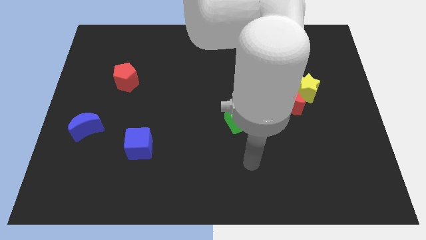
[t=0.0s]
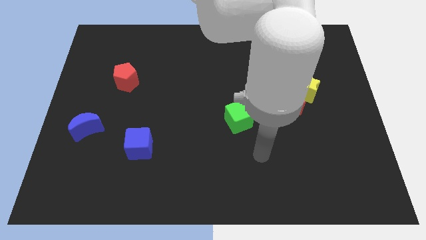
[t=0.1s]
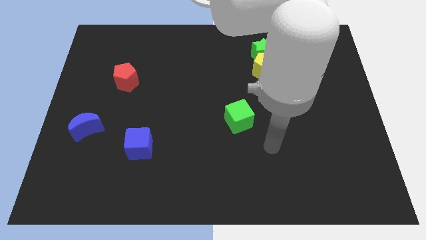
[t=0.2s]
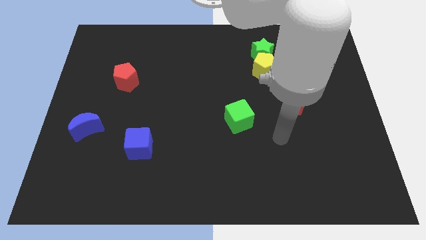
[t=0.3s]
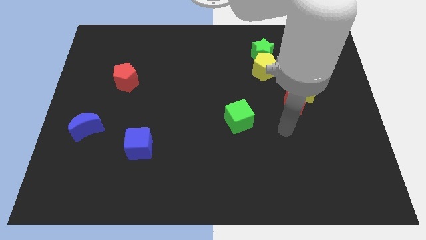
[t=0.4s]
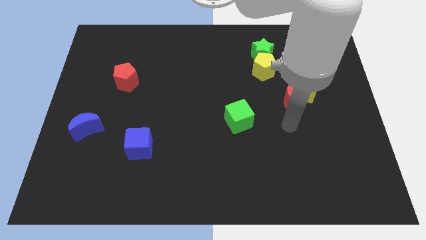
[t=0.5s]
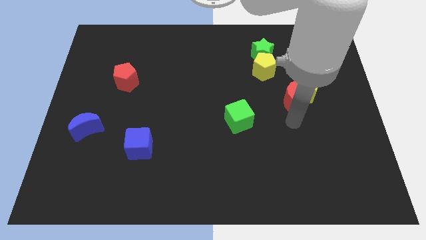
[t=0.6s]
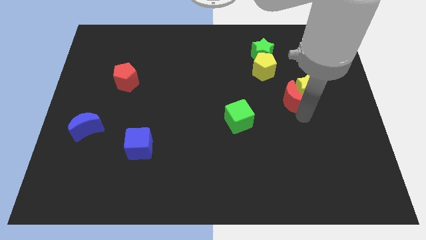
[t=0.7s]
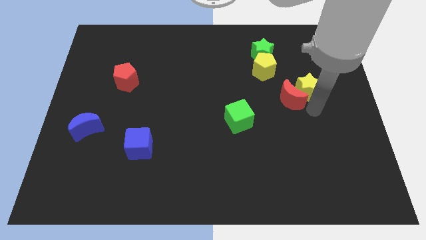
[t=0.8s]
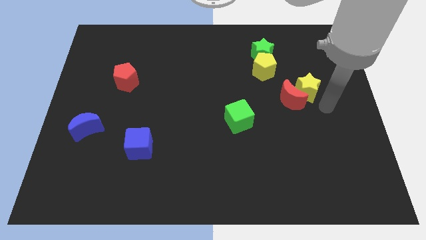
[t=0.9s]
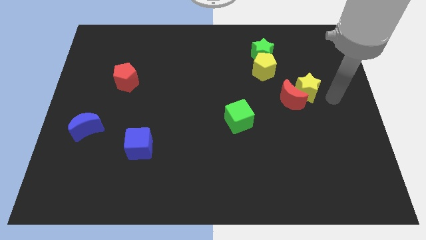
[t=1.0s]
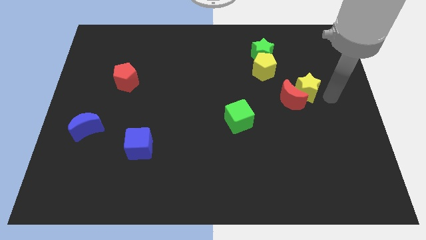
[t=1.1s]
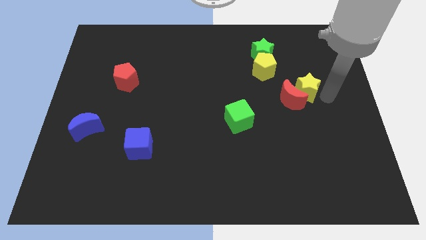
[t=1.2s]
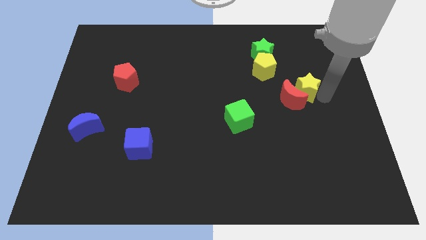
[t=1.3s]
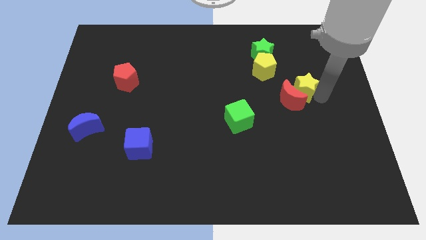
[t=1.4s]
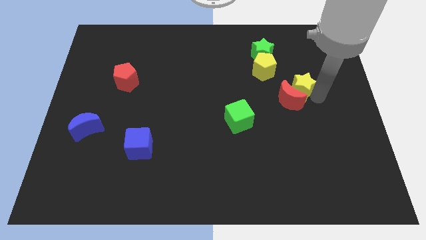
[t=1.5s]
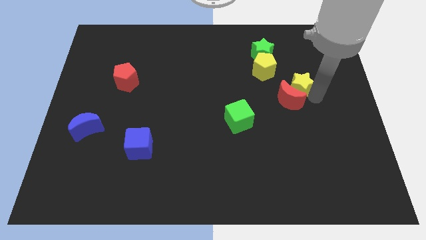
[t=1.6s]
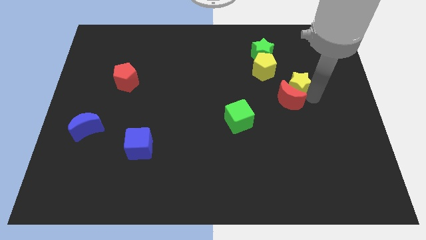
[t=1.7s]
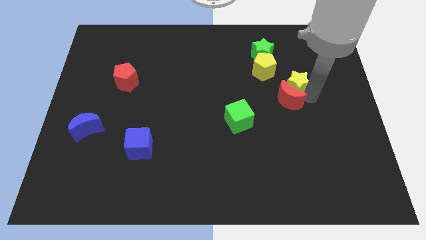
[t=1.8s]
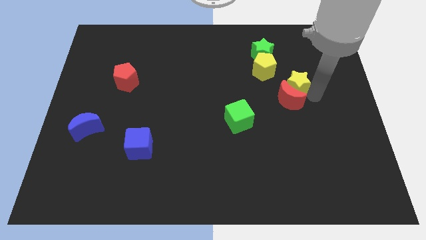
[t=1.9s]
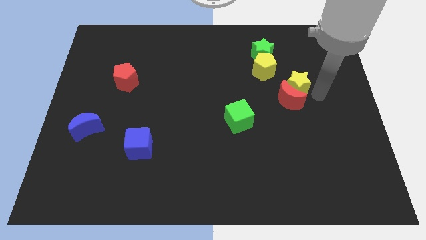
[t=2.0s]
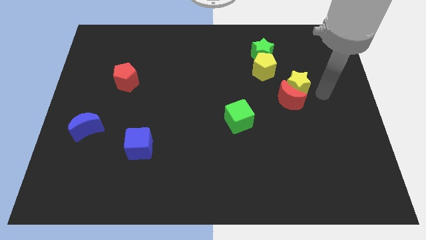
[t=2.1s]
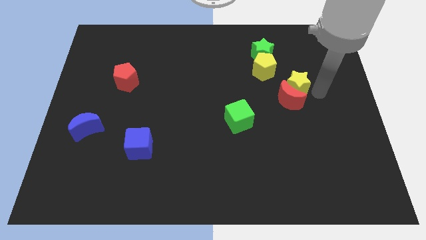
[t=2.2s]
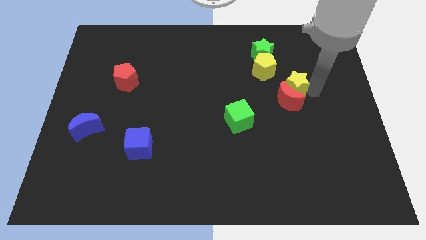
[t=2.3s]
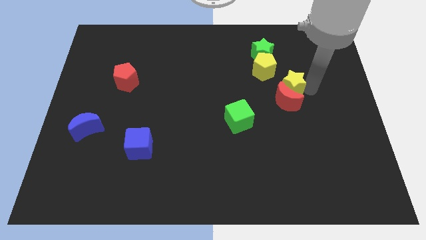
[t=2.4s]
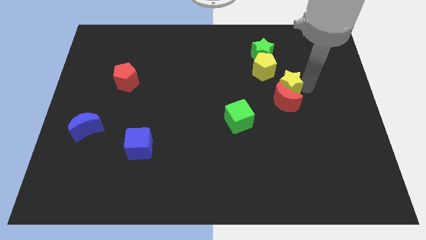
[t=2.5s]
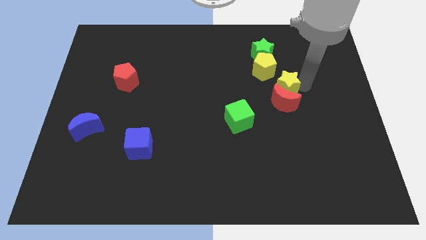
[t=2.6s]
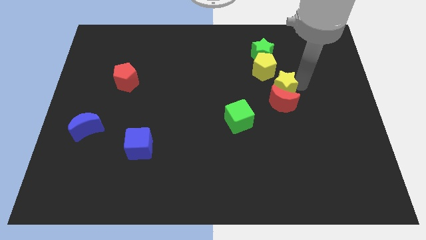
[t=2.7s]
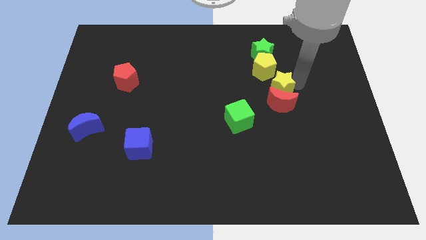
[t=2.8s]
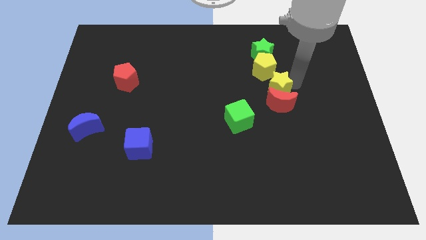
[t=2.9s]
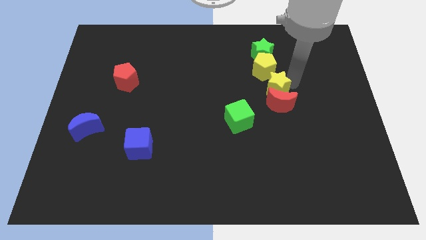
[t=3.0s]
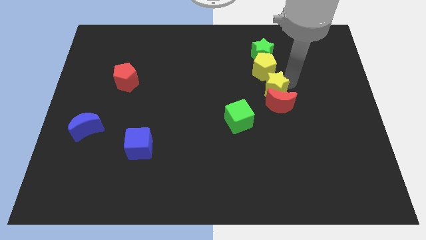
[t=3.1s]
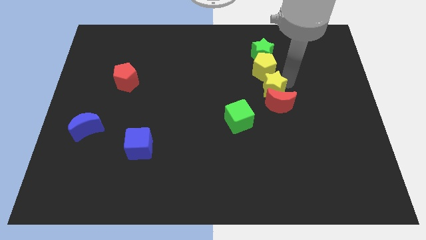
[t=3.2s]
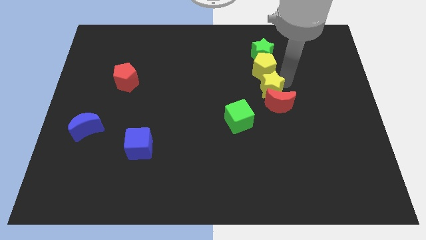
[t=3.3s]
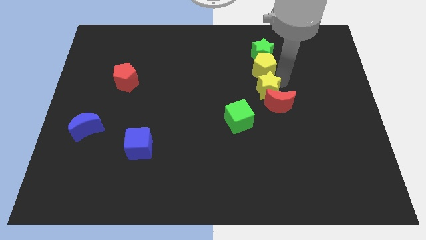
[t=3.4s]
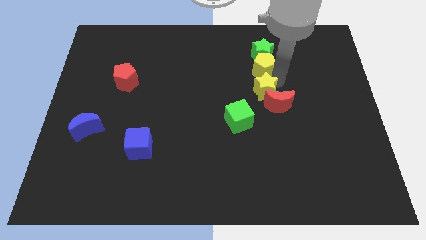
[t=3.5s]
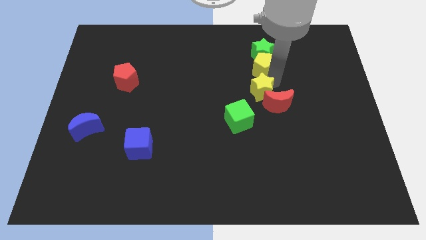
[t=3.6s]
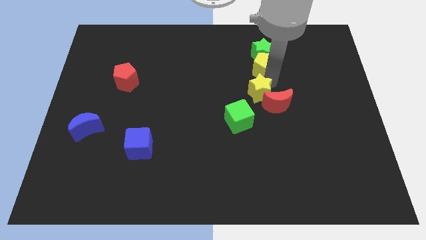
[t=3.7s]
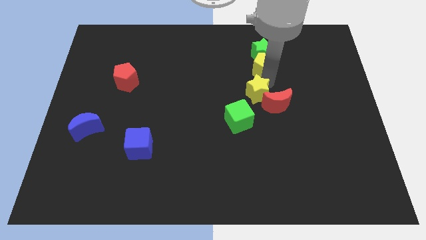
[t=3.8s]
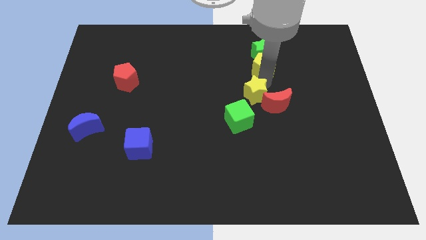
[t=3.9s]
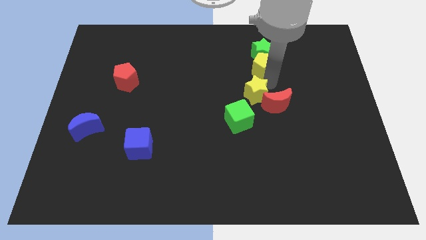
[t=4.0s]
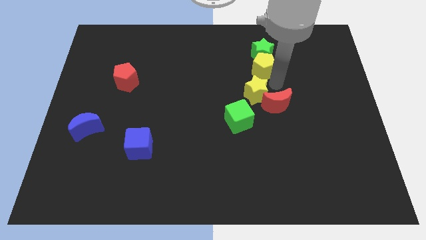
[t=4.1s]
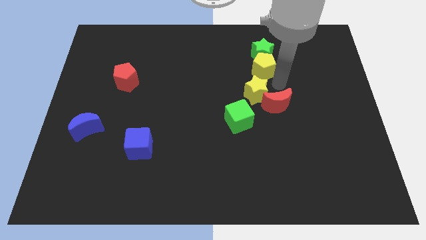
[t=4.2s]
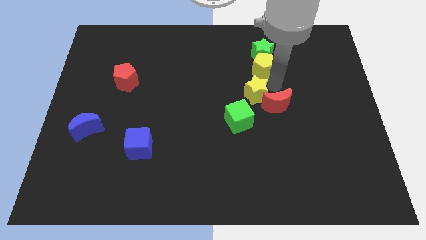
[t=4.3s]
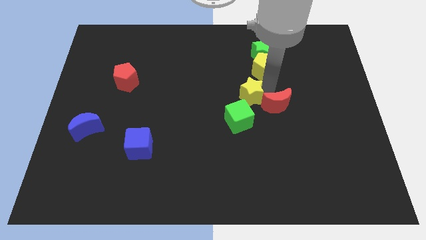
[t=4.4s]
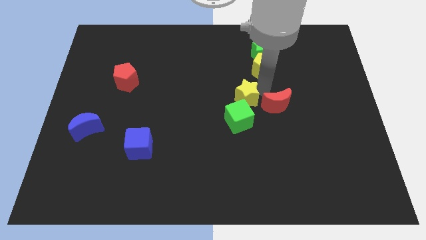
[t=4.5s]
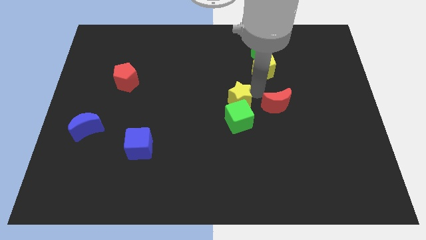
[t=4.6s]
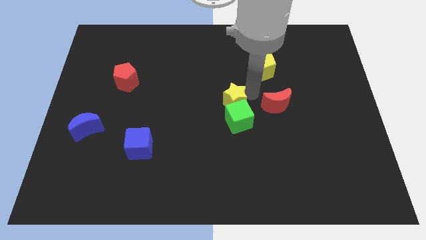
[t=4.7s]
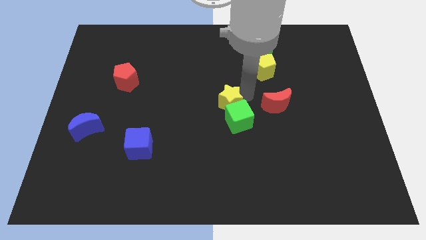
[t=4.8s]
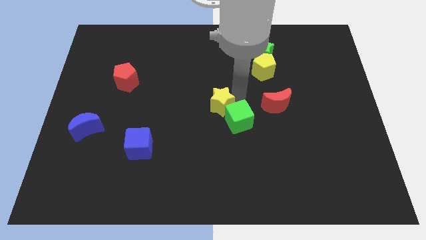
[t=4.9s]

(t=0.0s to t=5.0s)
move the yellow star just left of the green cube

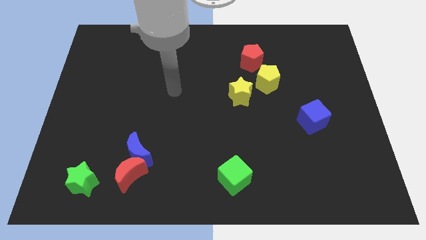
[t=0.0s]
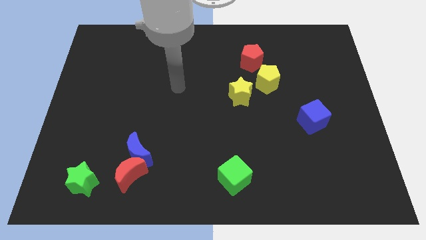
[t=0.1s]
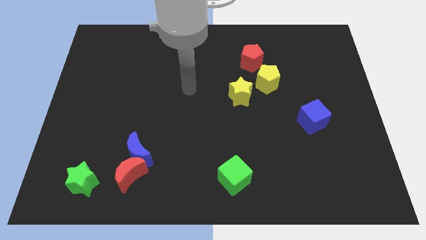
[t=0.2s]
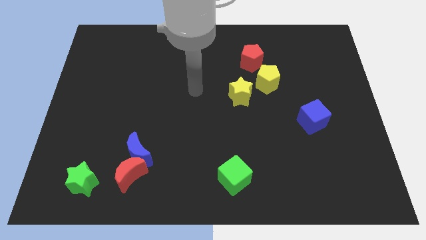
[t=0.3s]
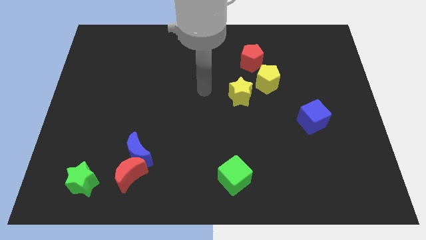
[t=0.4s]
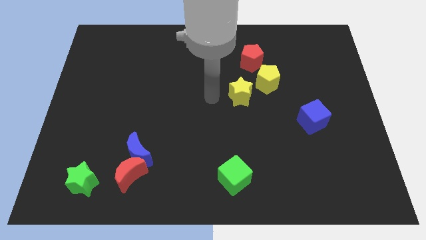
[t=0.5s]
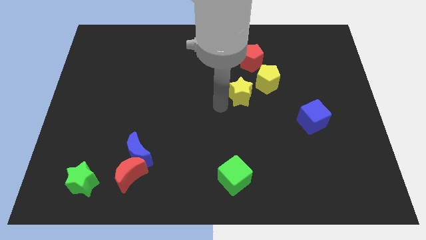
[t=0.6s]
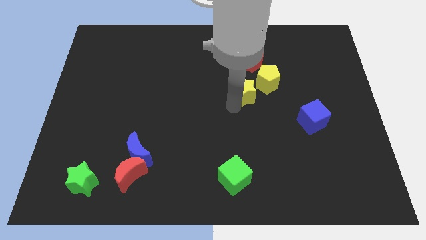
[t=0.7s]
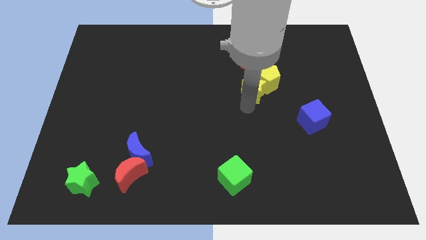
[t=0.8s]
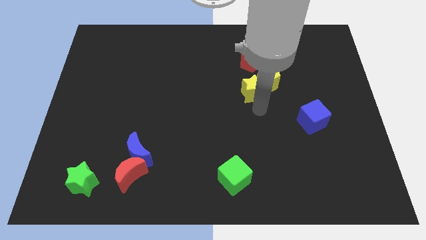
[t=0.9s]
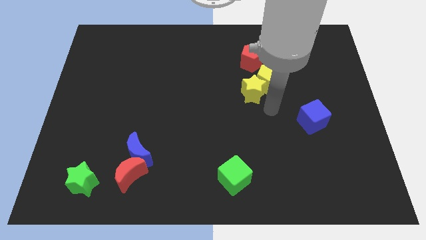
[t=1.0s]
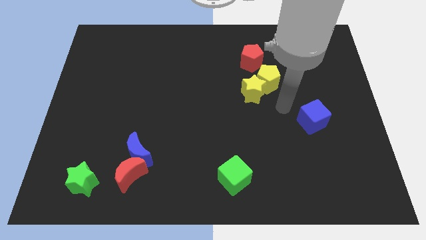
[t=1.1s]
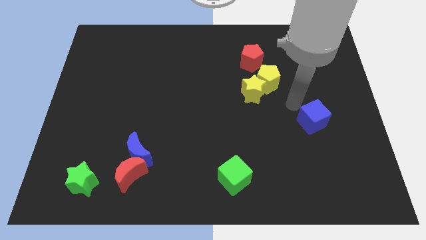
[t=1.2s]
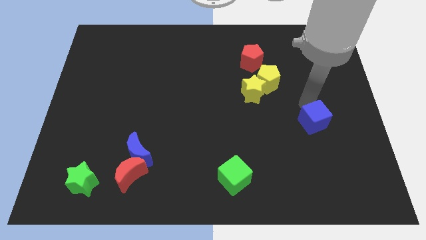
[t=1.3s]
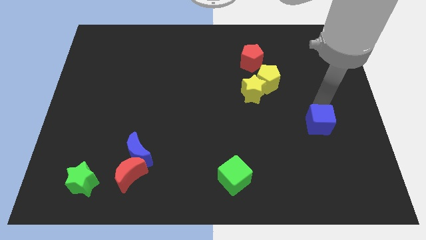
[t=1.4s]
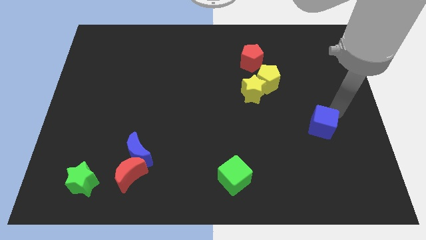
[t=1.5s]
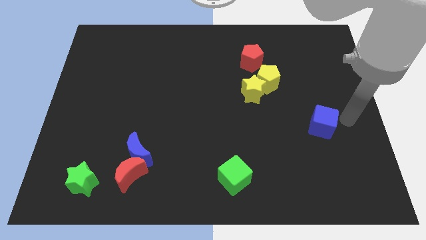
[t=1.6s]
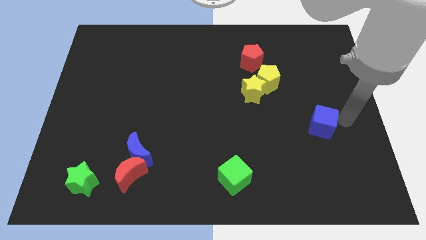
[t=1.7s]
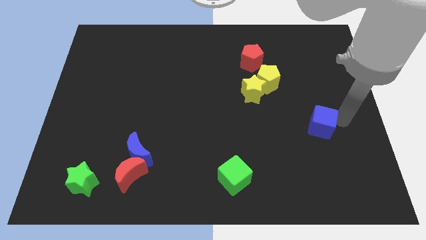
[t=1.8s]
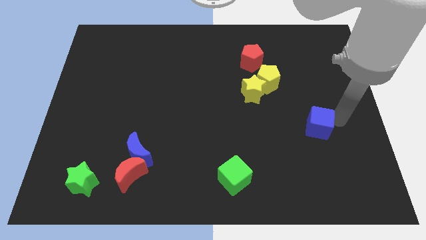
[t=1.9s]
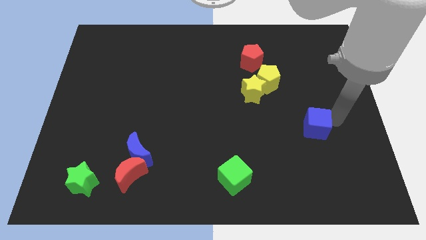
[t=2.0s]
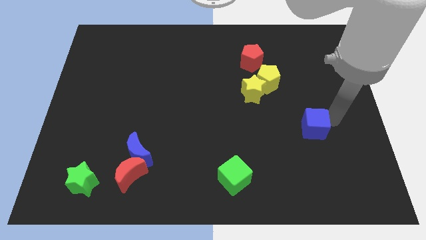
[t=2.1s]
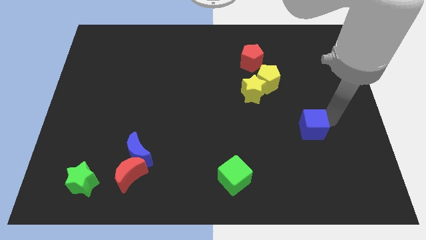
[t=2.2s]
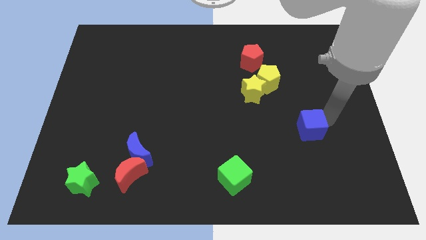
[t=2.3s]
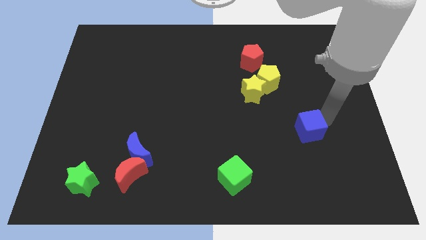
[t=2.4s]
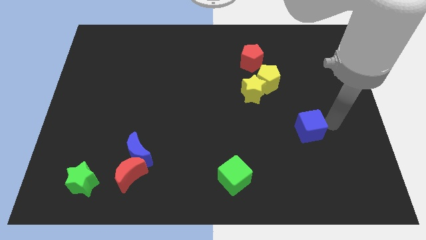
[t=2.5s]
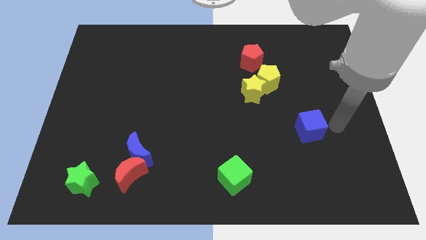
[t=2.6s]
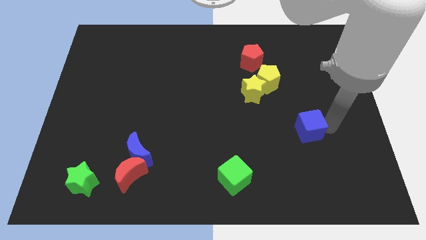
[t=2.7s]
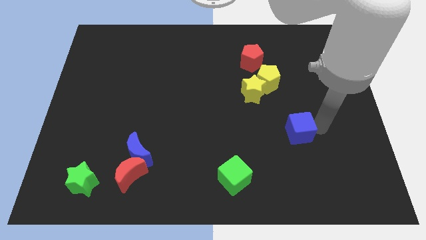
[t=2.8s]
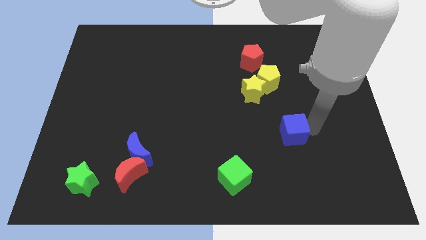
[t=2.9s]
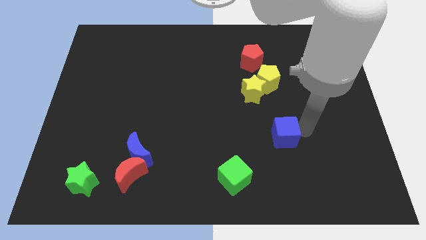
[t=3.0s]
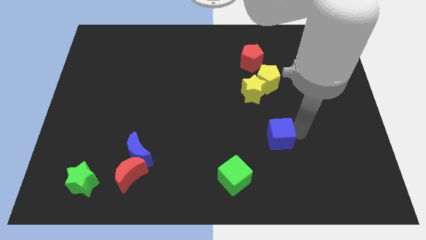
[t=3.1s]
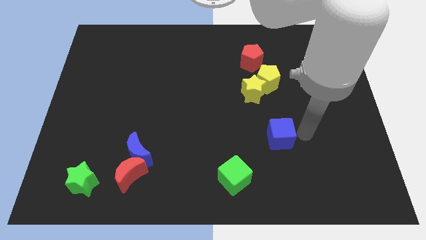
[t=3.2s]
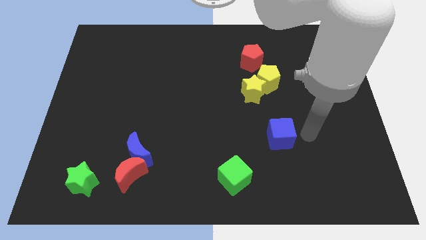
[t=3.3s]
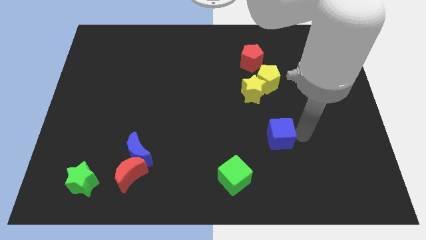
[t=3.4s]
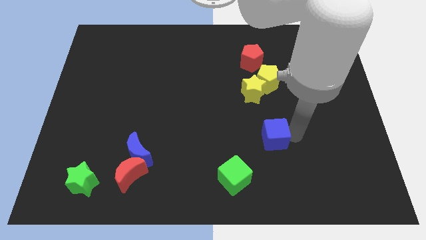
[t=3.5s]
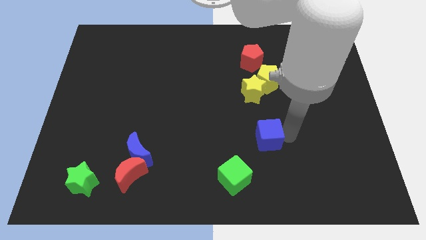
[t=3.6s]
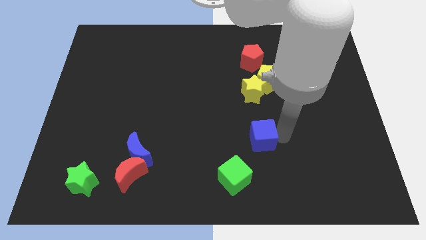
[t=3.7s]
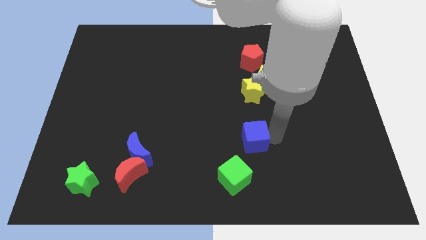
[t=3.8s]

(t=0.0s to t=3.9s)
move the blue cube to the top side of the green cube
